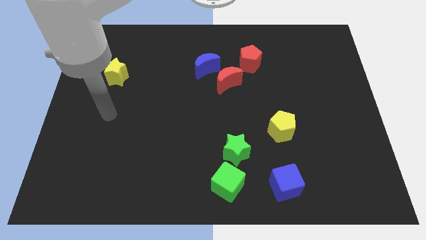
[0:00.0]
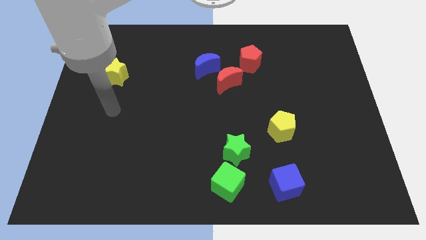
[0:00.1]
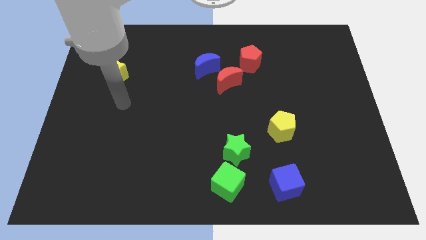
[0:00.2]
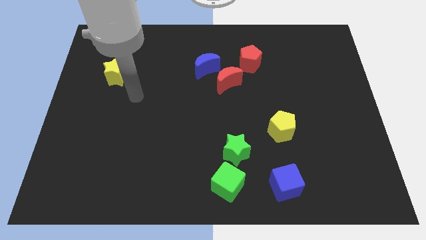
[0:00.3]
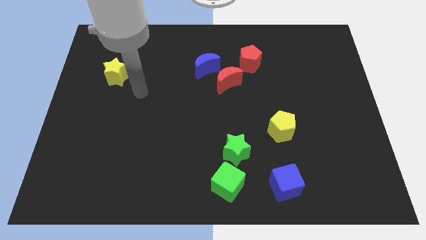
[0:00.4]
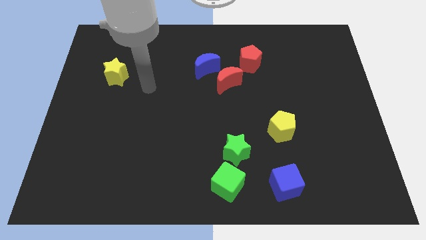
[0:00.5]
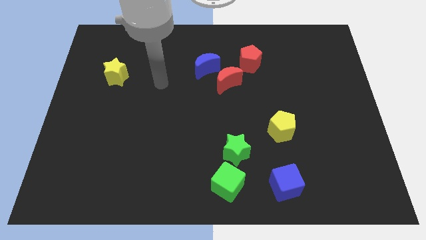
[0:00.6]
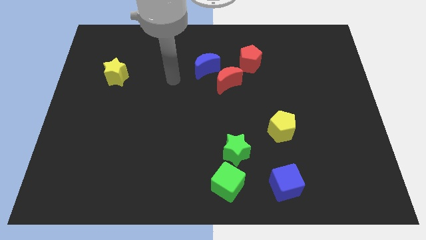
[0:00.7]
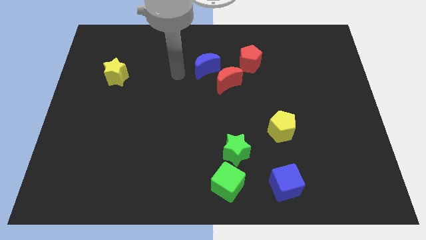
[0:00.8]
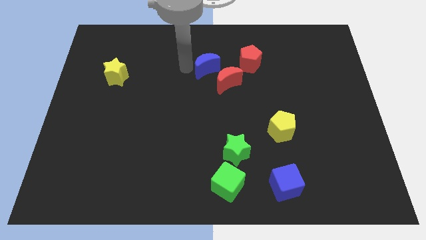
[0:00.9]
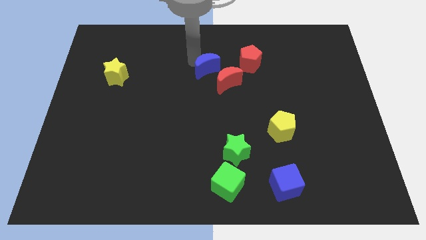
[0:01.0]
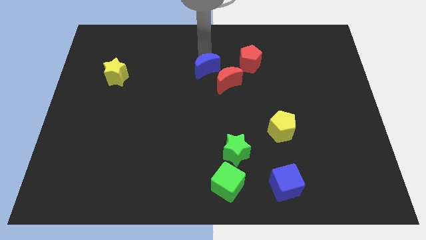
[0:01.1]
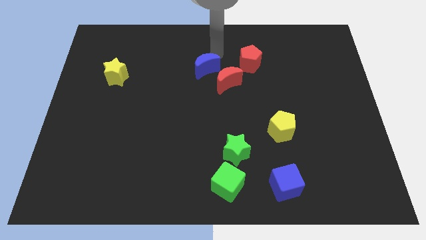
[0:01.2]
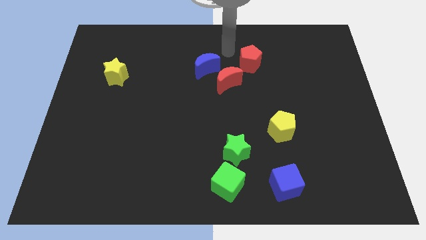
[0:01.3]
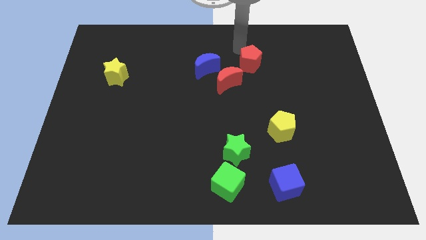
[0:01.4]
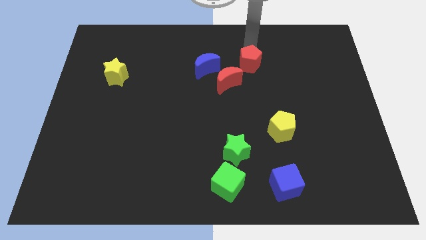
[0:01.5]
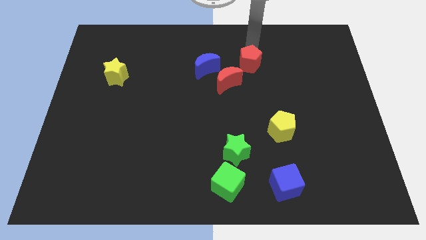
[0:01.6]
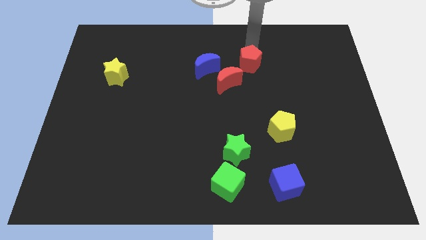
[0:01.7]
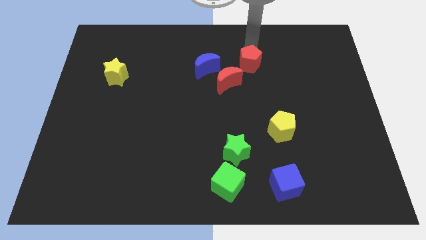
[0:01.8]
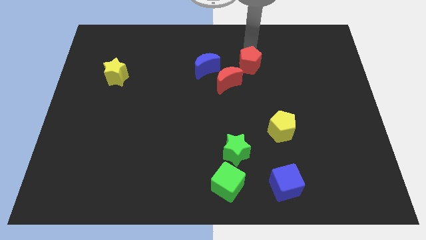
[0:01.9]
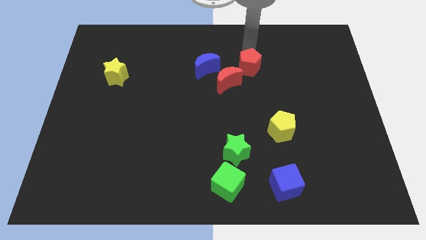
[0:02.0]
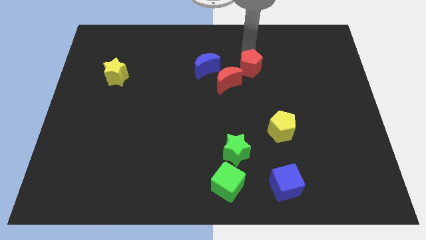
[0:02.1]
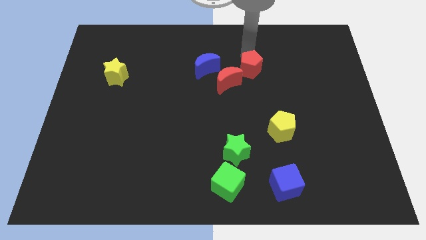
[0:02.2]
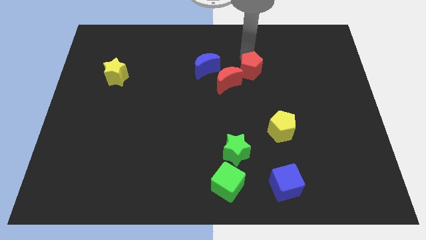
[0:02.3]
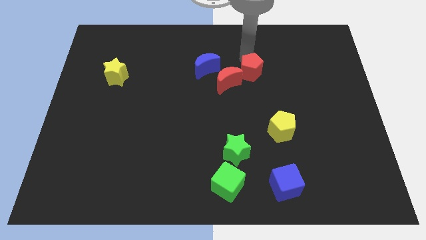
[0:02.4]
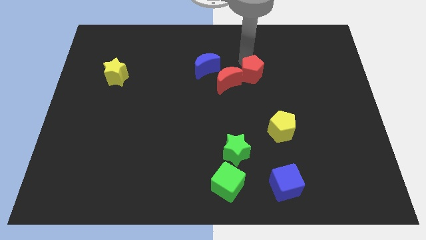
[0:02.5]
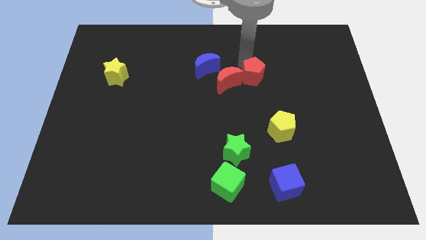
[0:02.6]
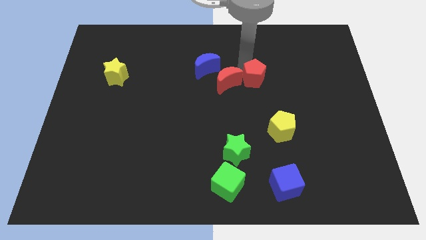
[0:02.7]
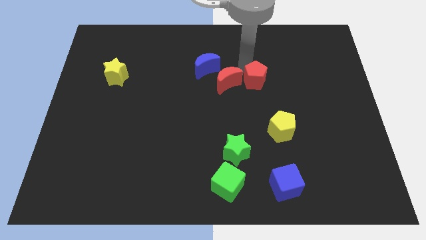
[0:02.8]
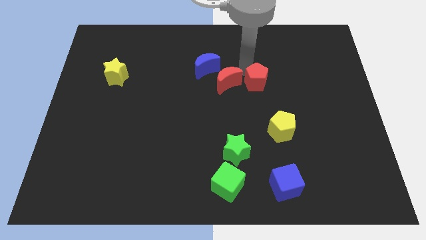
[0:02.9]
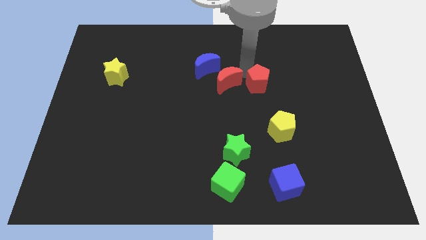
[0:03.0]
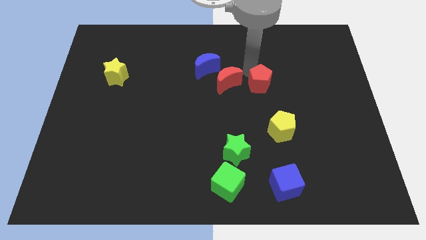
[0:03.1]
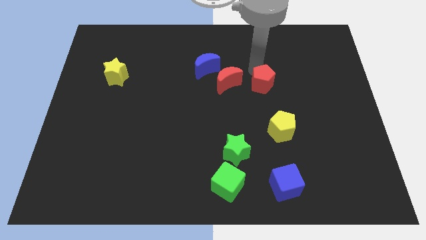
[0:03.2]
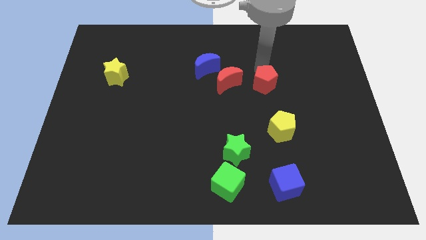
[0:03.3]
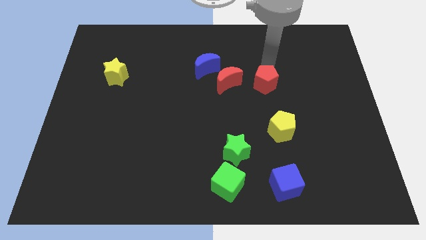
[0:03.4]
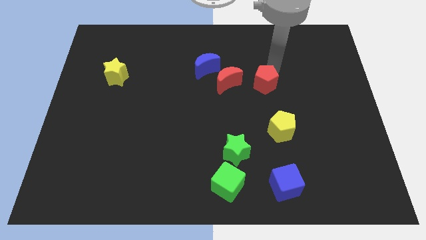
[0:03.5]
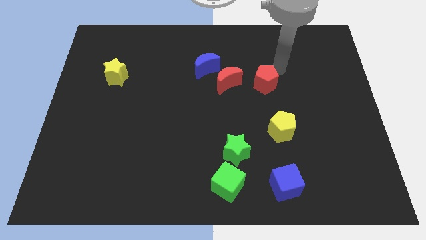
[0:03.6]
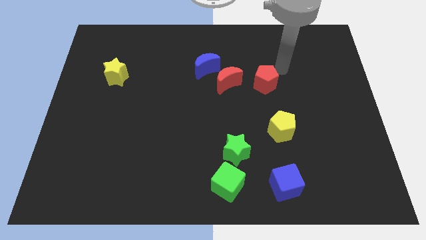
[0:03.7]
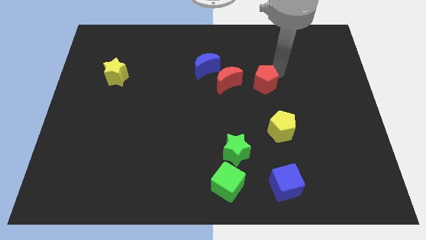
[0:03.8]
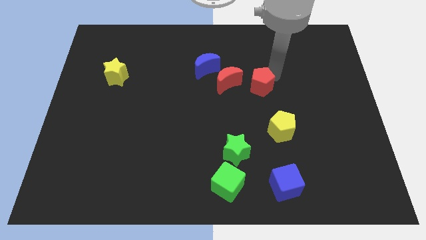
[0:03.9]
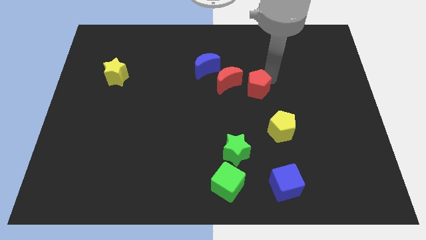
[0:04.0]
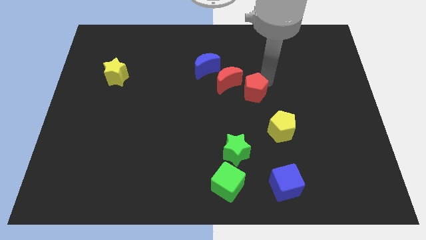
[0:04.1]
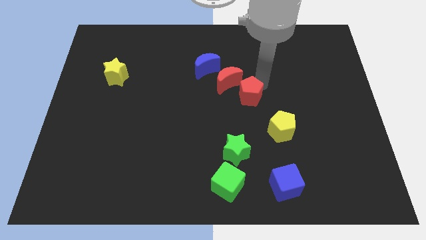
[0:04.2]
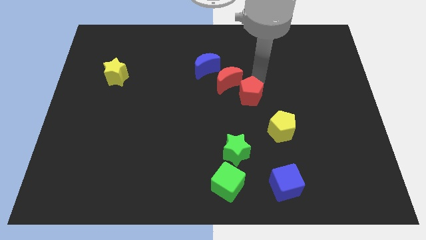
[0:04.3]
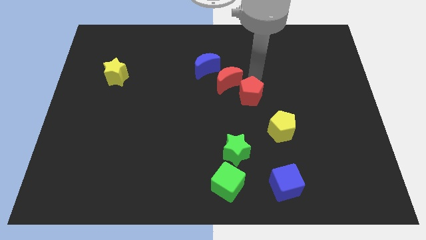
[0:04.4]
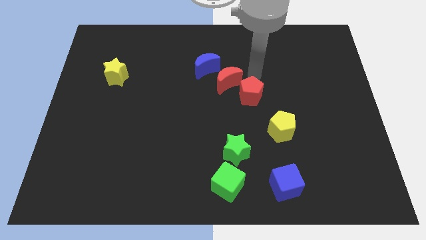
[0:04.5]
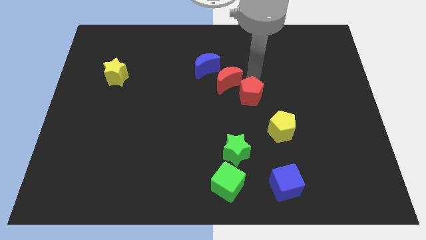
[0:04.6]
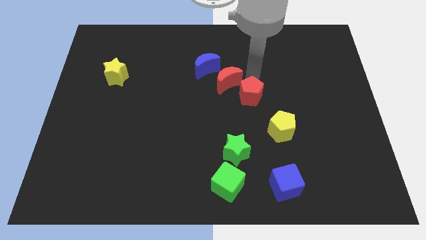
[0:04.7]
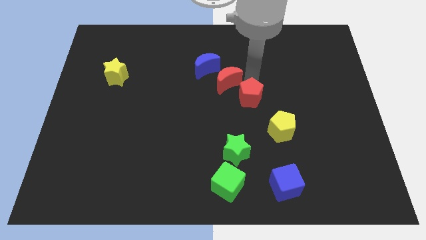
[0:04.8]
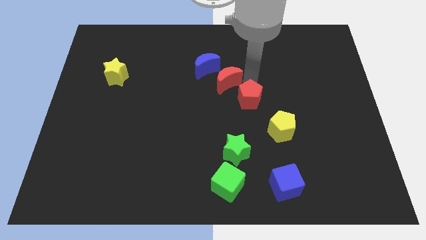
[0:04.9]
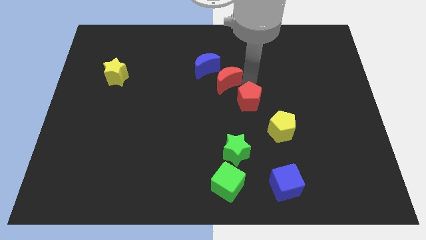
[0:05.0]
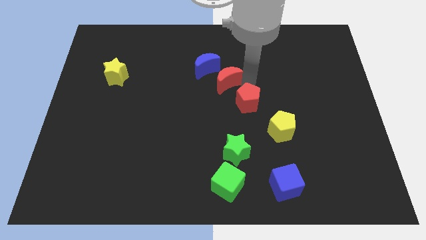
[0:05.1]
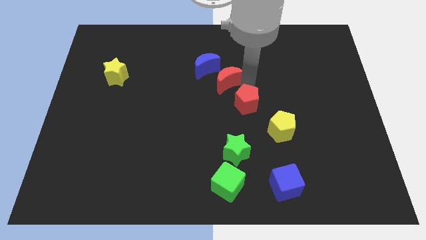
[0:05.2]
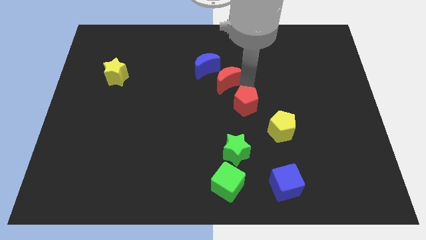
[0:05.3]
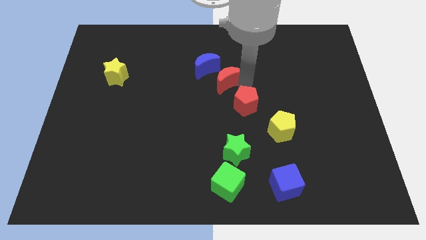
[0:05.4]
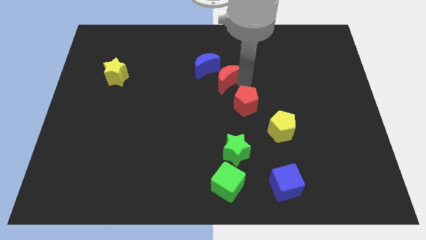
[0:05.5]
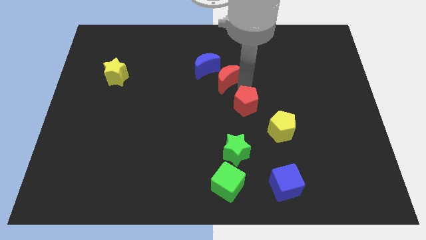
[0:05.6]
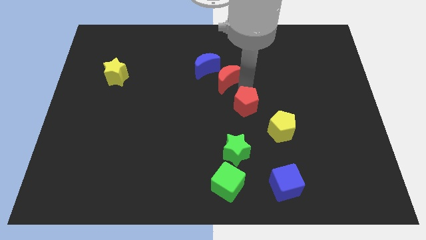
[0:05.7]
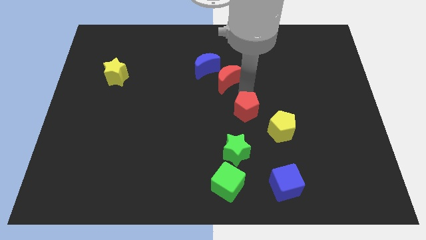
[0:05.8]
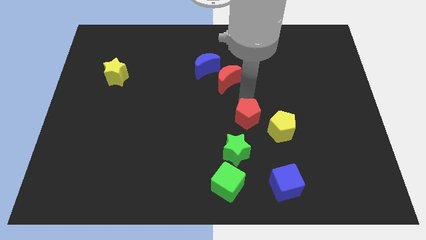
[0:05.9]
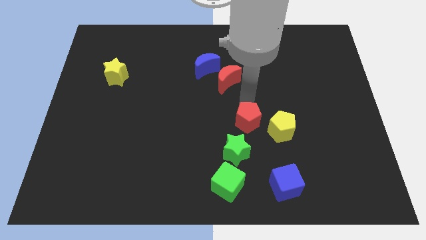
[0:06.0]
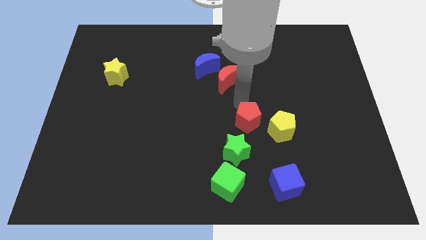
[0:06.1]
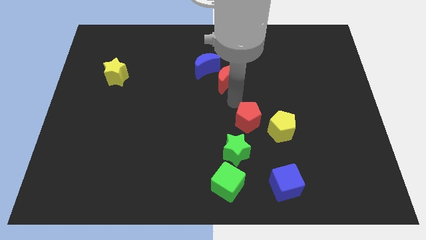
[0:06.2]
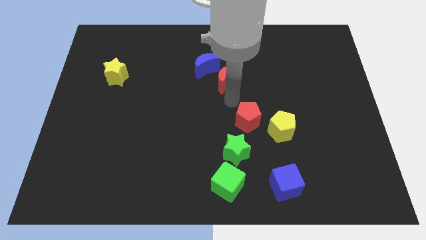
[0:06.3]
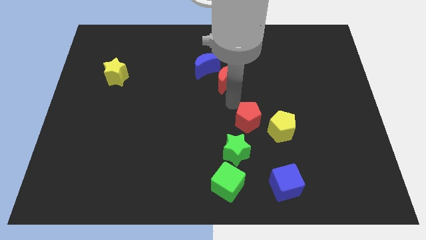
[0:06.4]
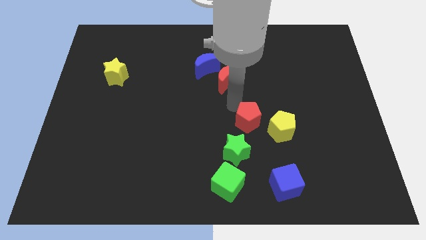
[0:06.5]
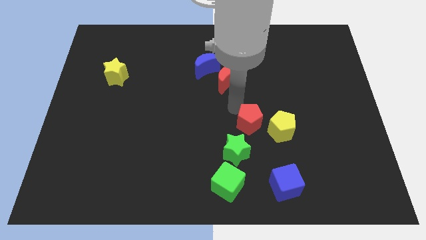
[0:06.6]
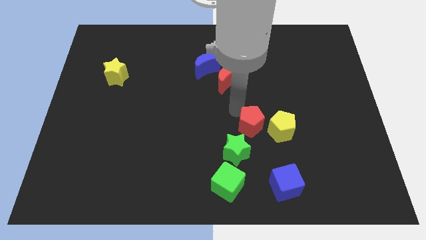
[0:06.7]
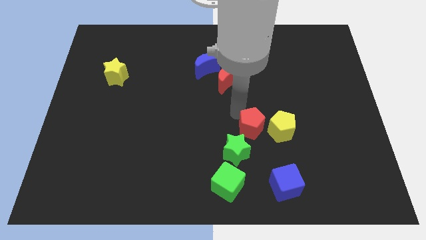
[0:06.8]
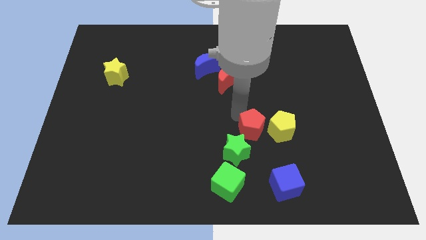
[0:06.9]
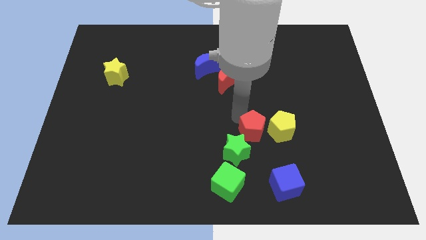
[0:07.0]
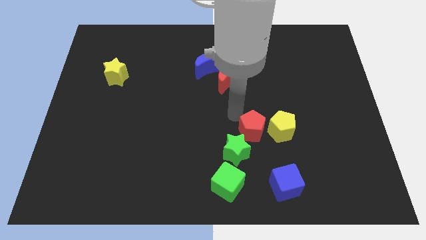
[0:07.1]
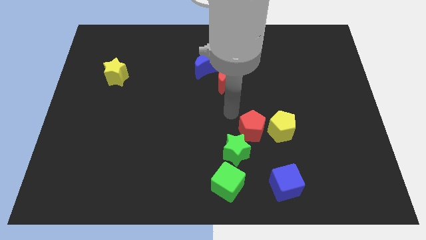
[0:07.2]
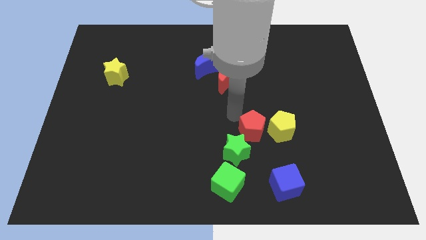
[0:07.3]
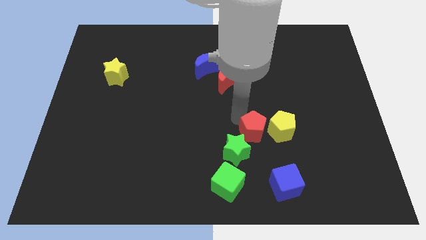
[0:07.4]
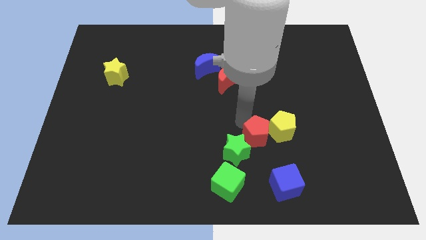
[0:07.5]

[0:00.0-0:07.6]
move the red pentagon to the right of the green star
